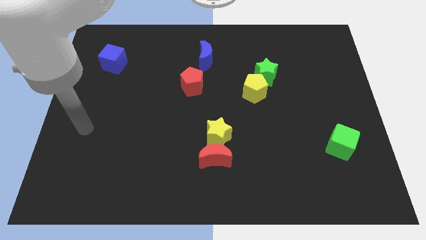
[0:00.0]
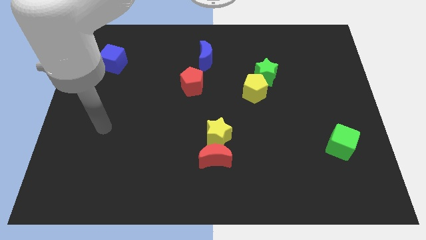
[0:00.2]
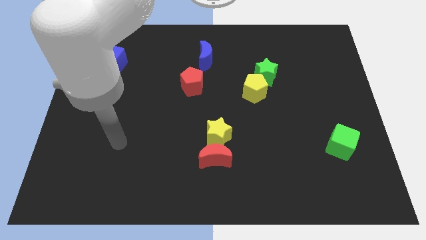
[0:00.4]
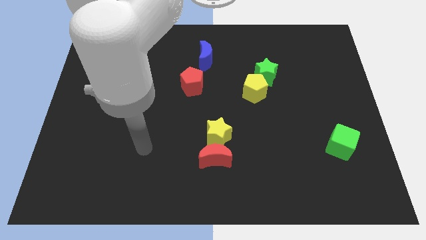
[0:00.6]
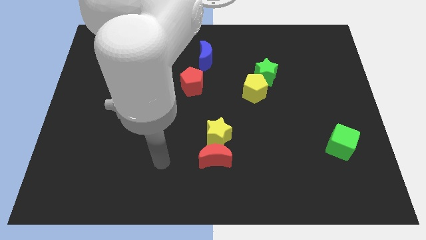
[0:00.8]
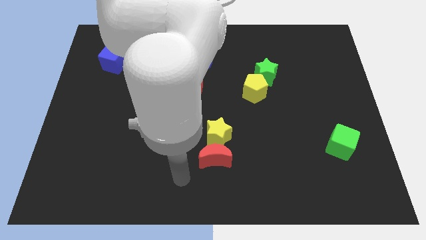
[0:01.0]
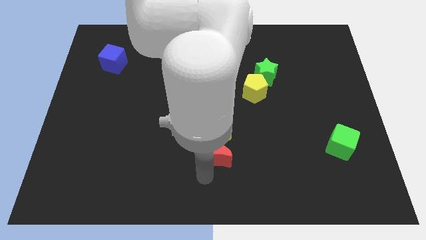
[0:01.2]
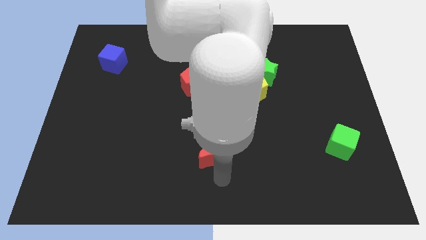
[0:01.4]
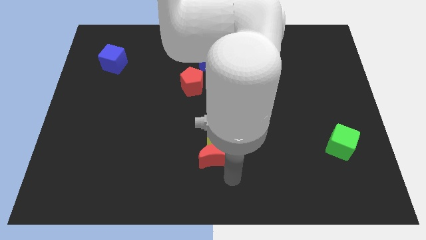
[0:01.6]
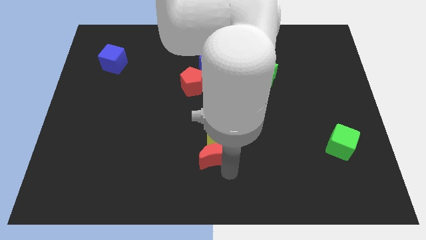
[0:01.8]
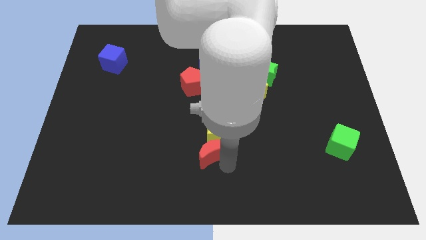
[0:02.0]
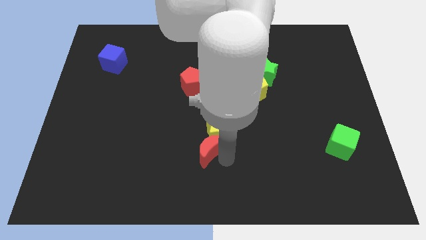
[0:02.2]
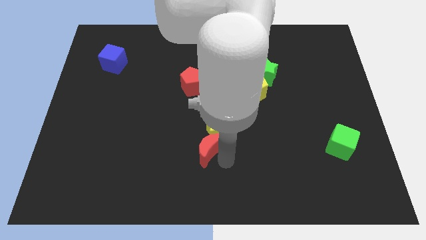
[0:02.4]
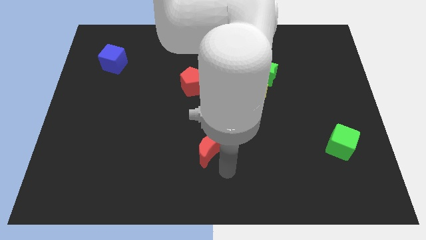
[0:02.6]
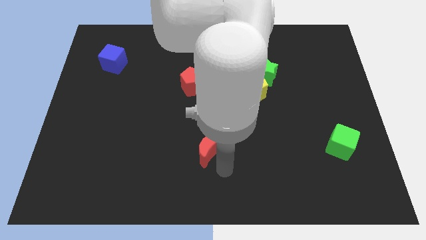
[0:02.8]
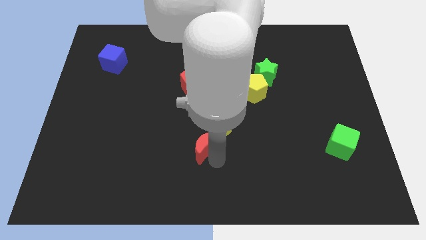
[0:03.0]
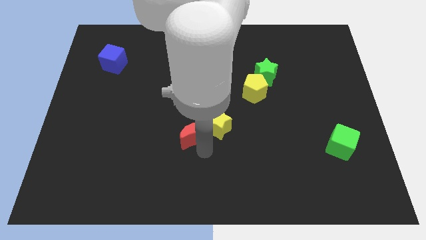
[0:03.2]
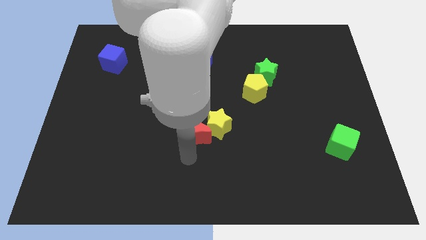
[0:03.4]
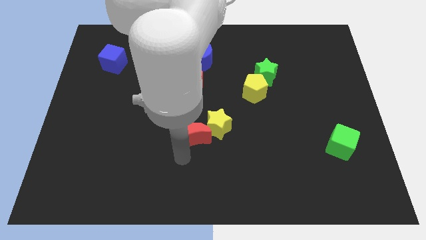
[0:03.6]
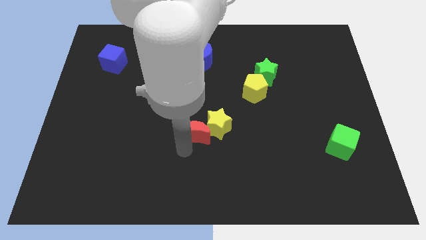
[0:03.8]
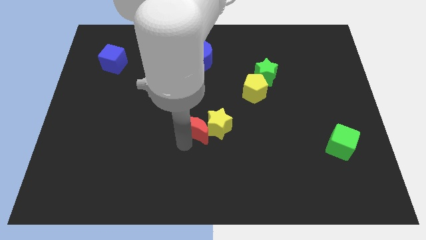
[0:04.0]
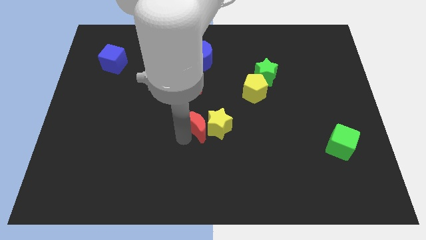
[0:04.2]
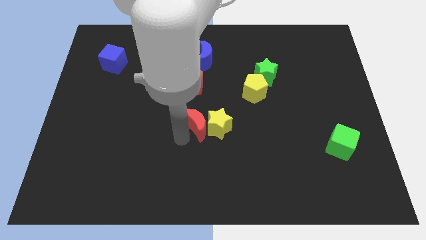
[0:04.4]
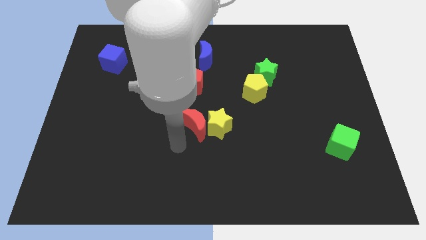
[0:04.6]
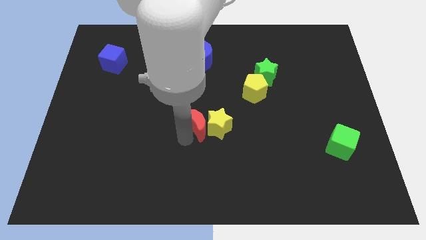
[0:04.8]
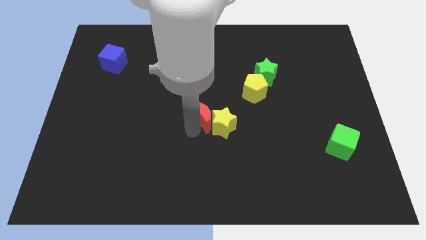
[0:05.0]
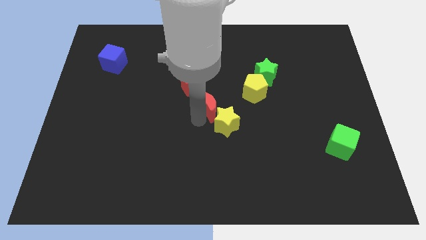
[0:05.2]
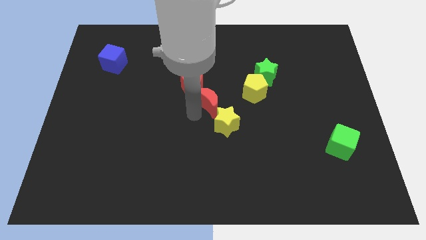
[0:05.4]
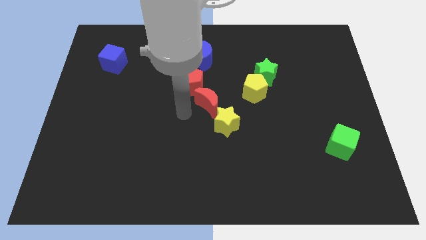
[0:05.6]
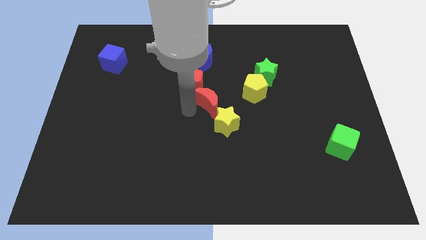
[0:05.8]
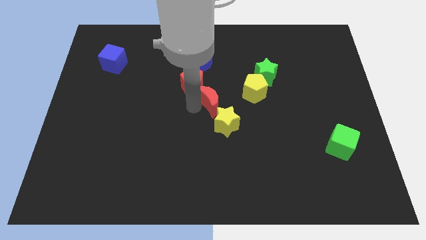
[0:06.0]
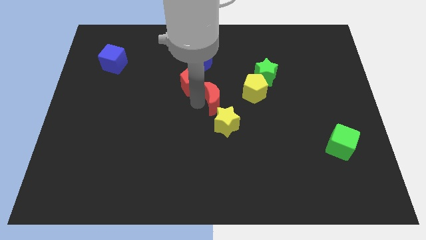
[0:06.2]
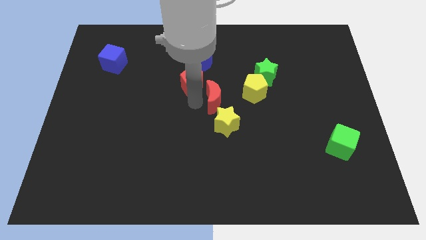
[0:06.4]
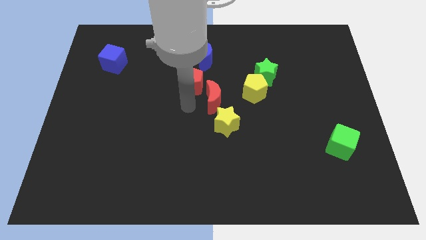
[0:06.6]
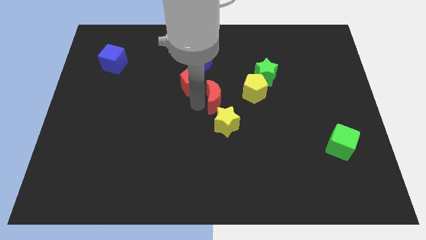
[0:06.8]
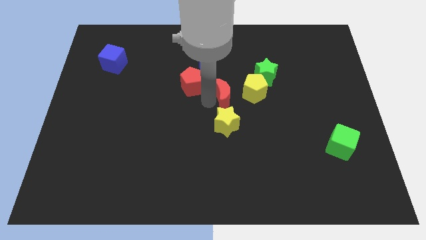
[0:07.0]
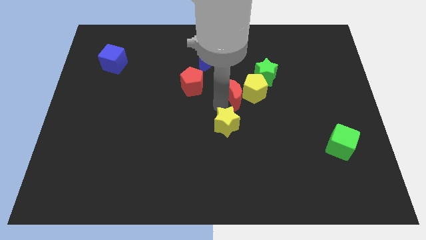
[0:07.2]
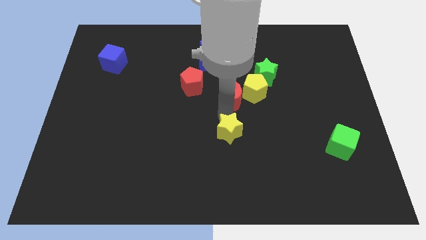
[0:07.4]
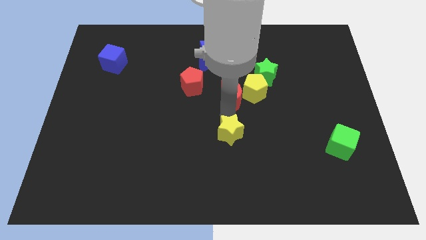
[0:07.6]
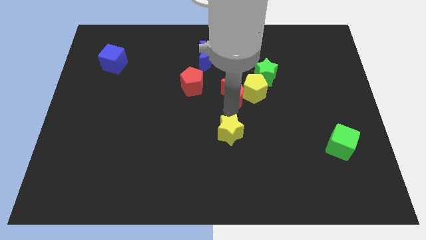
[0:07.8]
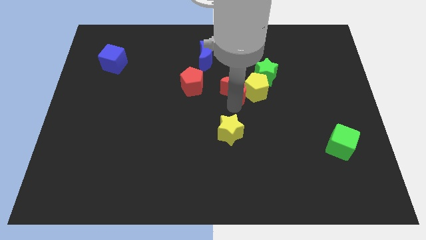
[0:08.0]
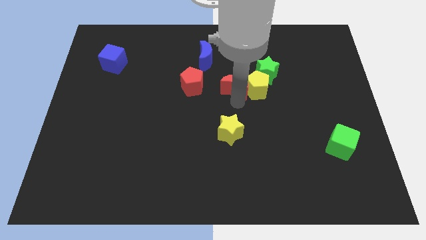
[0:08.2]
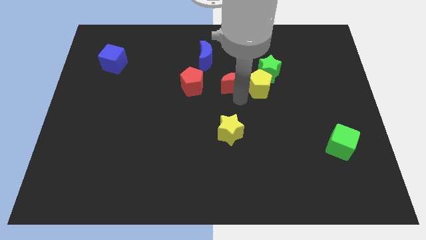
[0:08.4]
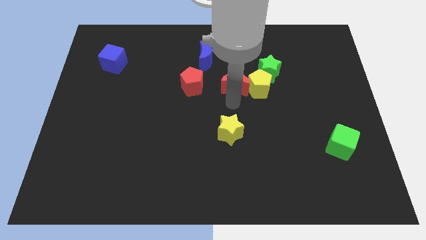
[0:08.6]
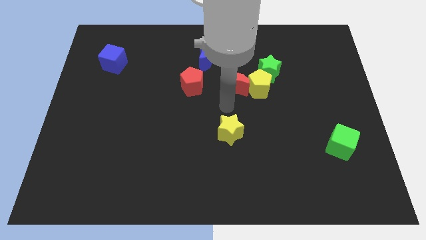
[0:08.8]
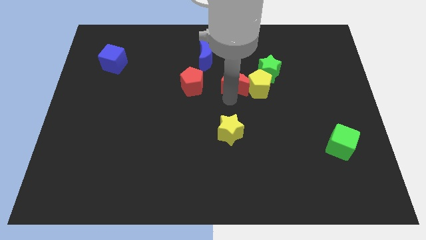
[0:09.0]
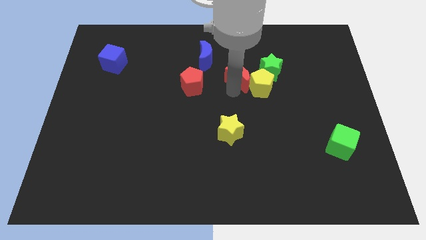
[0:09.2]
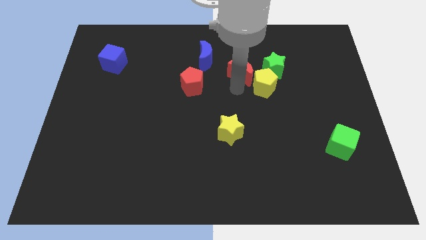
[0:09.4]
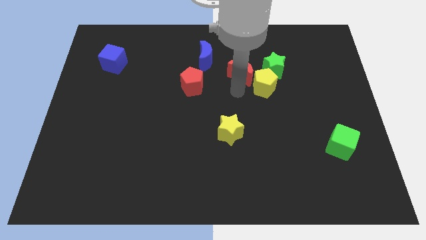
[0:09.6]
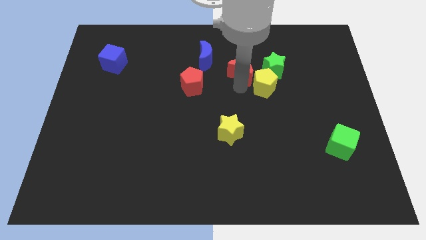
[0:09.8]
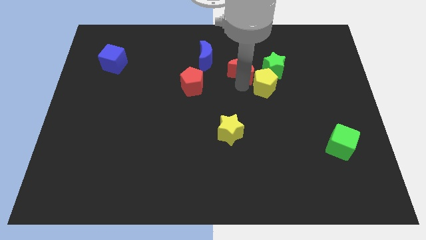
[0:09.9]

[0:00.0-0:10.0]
push the red moon to the right side of the blue moon

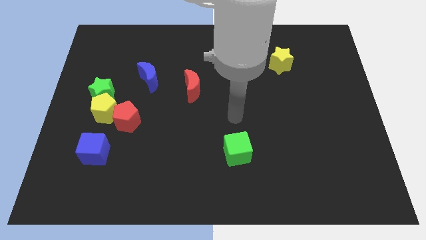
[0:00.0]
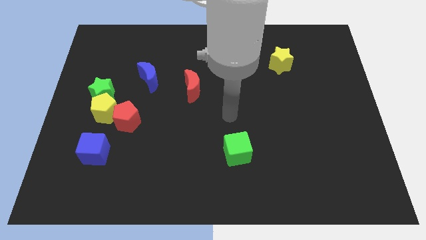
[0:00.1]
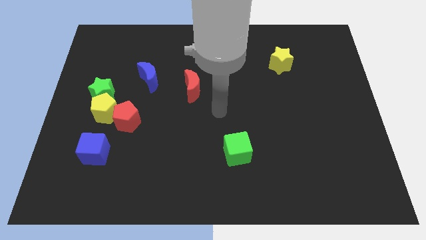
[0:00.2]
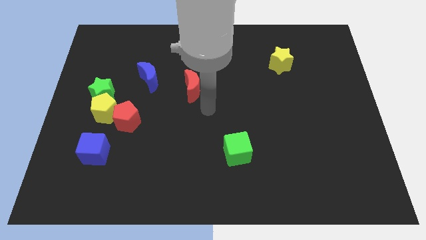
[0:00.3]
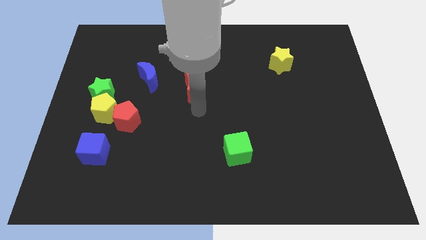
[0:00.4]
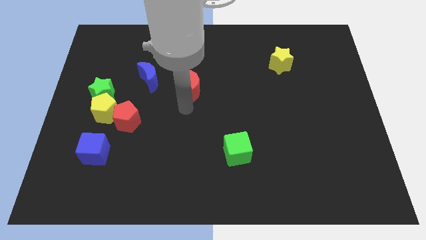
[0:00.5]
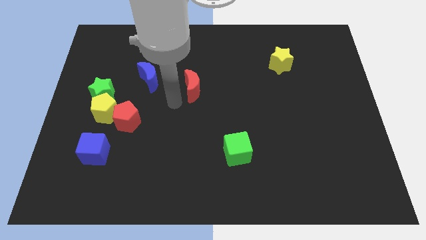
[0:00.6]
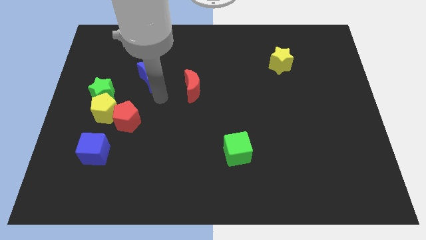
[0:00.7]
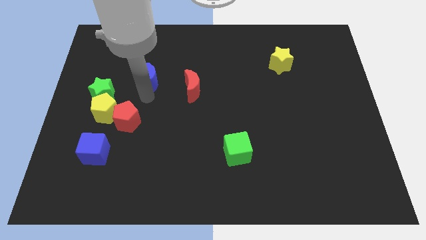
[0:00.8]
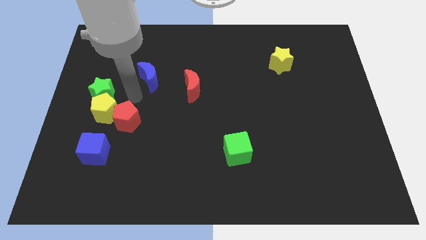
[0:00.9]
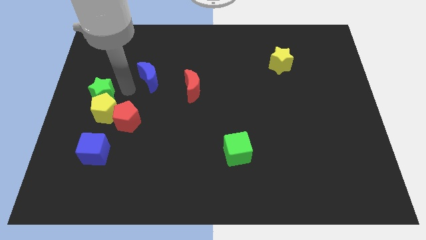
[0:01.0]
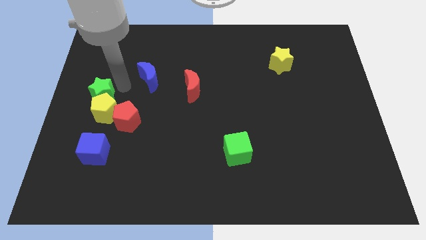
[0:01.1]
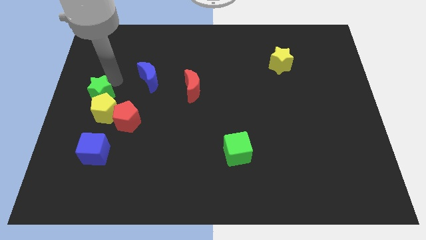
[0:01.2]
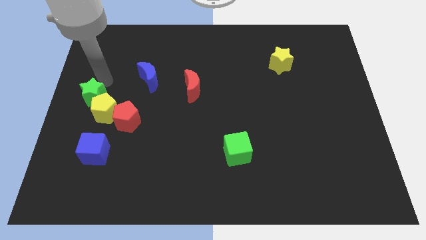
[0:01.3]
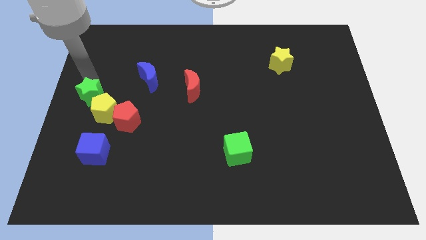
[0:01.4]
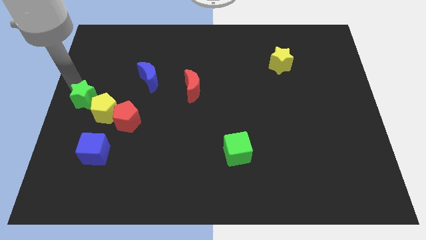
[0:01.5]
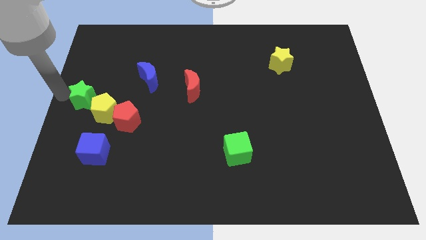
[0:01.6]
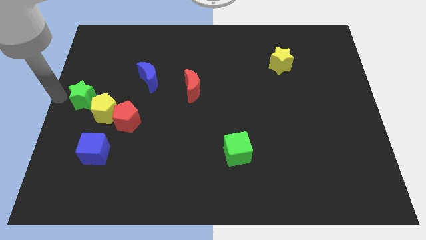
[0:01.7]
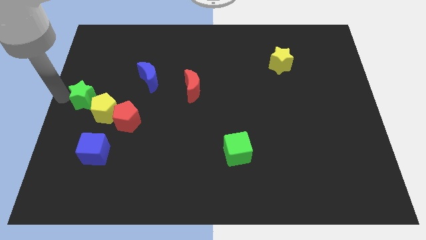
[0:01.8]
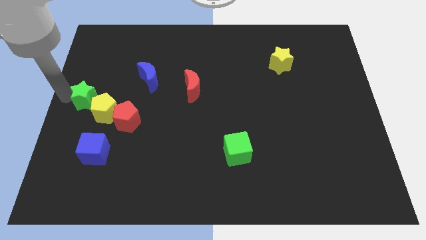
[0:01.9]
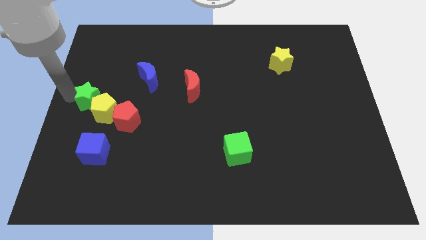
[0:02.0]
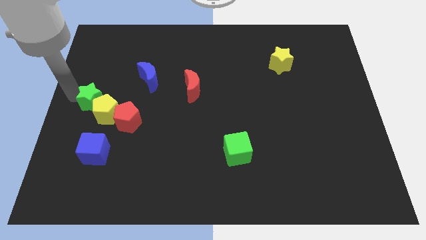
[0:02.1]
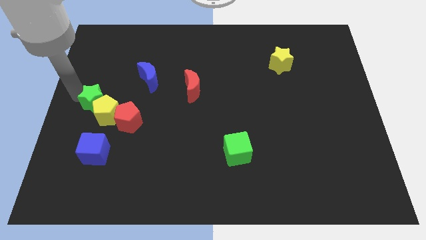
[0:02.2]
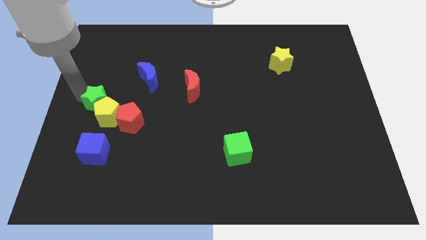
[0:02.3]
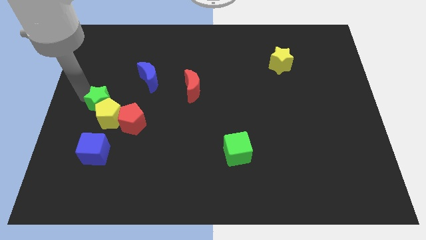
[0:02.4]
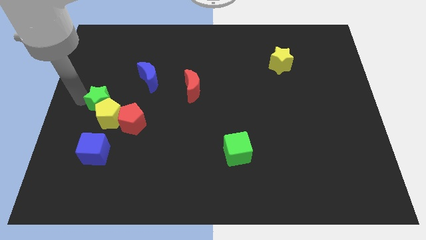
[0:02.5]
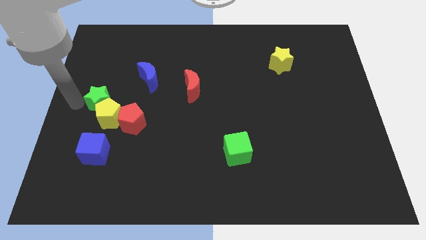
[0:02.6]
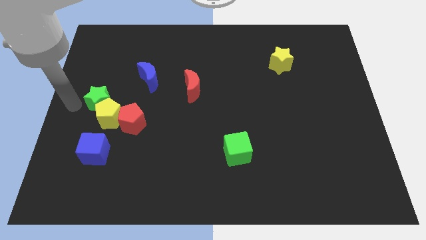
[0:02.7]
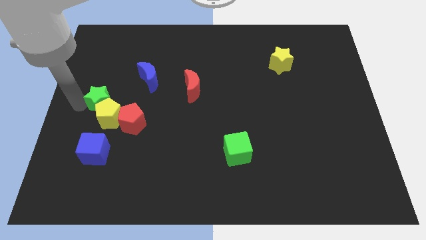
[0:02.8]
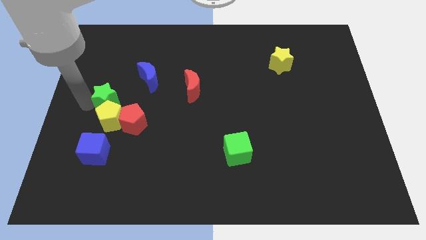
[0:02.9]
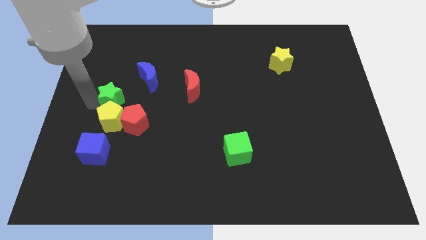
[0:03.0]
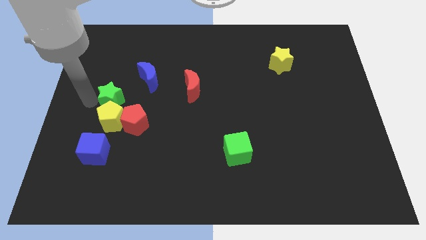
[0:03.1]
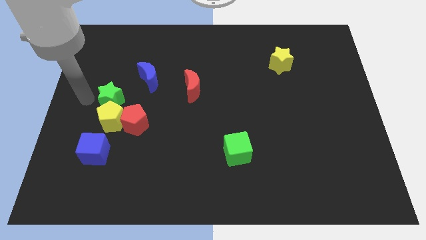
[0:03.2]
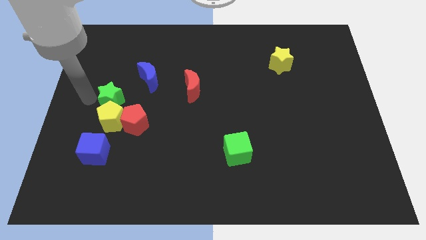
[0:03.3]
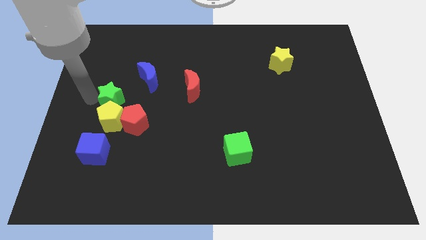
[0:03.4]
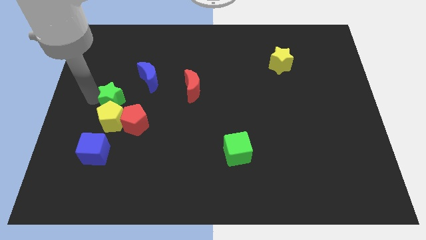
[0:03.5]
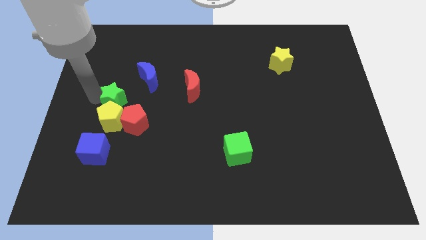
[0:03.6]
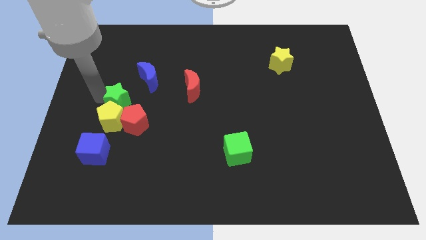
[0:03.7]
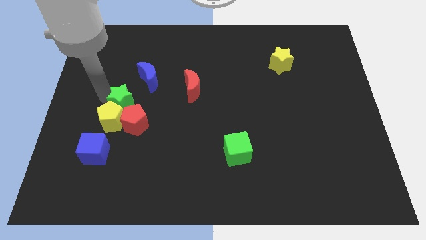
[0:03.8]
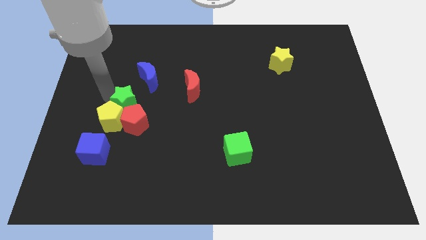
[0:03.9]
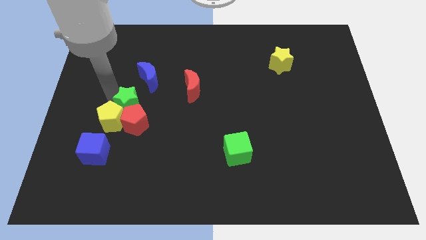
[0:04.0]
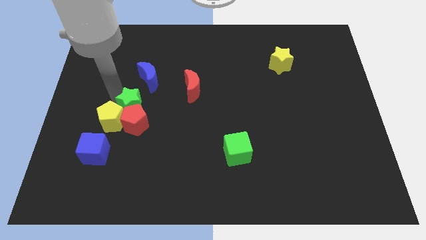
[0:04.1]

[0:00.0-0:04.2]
put the green star to the top right of the red pentagon
